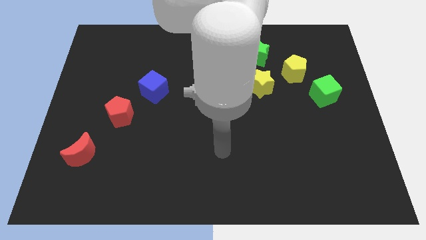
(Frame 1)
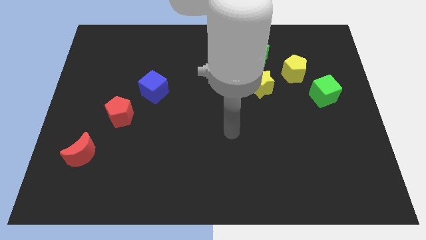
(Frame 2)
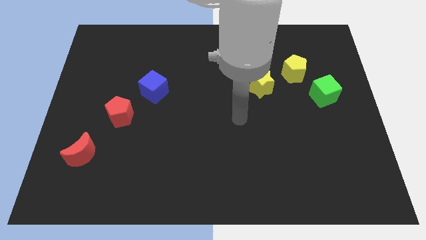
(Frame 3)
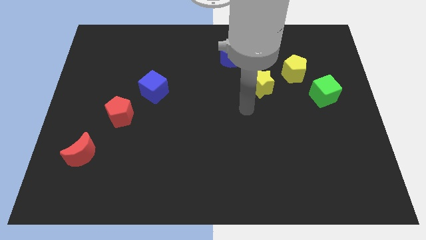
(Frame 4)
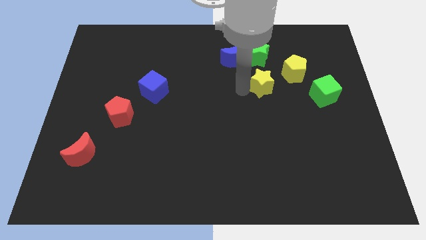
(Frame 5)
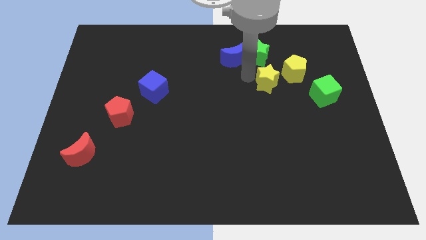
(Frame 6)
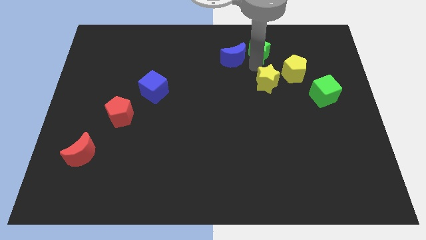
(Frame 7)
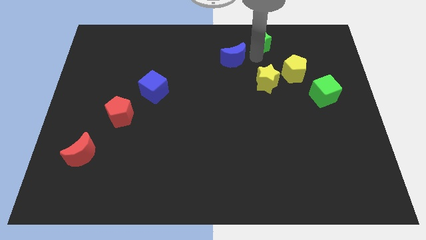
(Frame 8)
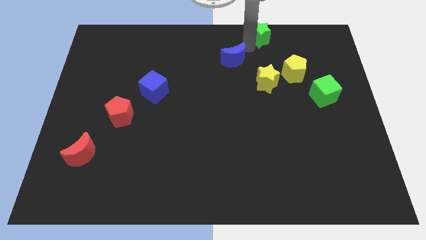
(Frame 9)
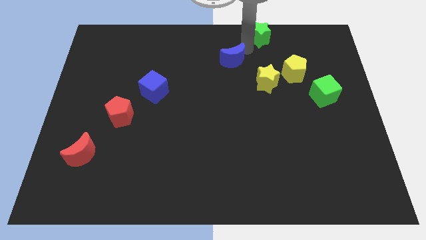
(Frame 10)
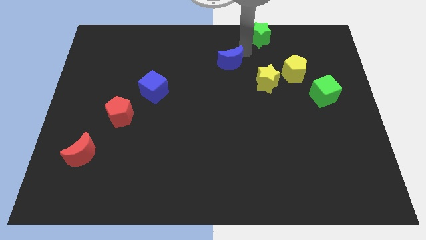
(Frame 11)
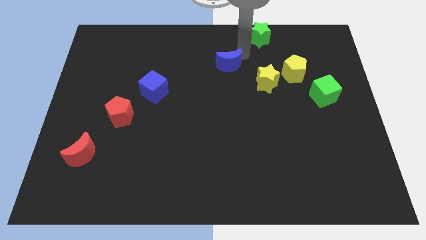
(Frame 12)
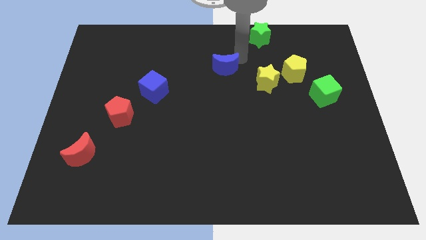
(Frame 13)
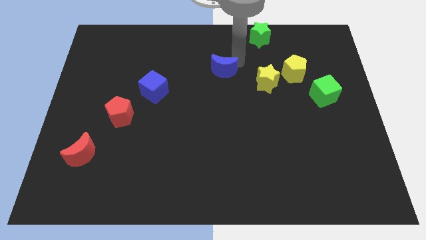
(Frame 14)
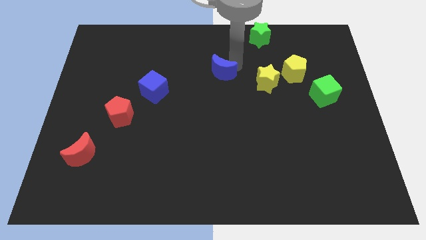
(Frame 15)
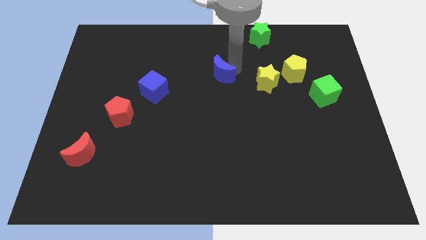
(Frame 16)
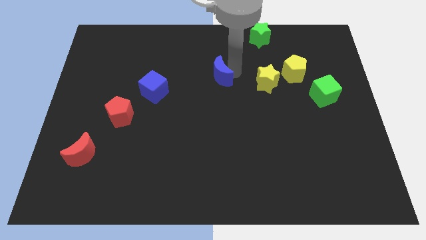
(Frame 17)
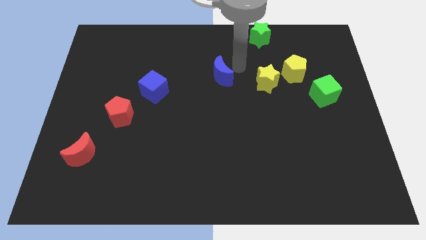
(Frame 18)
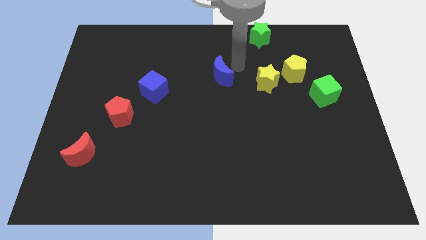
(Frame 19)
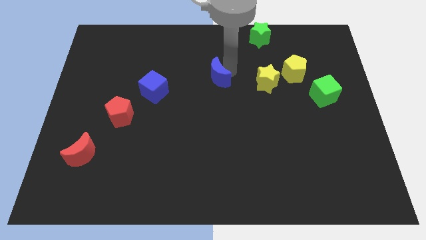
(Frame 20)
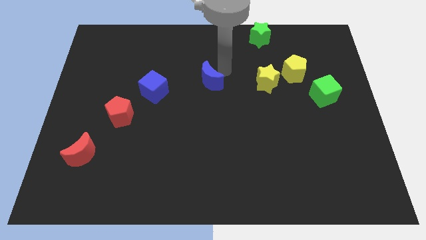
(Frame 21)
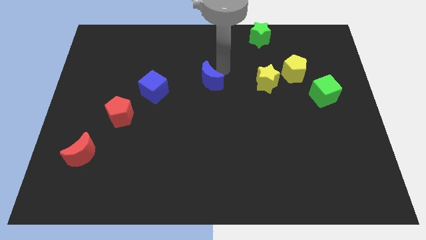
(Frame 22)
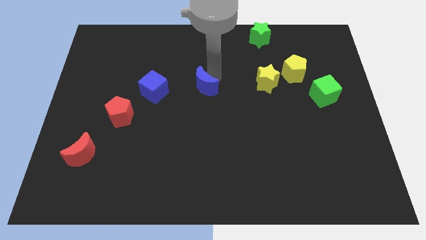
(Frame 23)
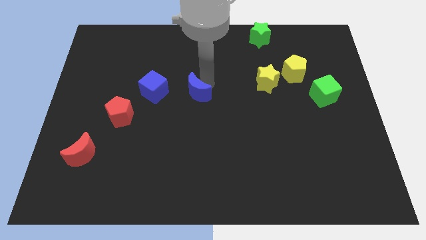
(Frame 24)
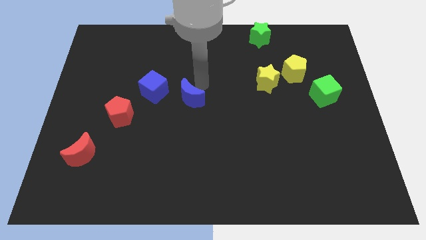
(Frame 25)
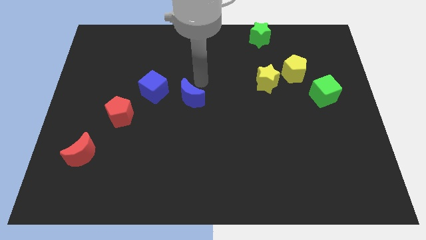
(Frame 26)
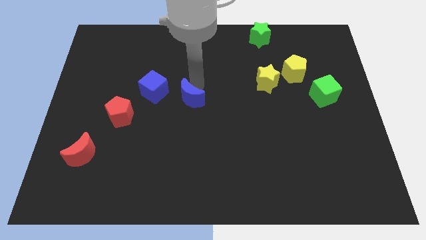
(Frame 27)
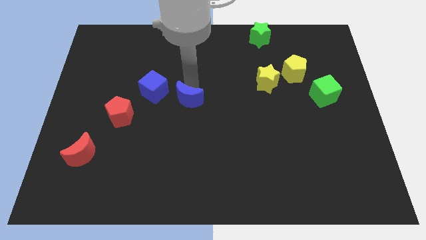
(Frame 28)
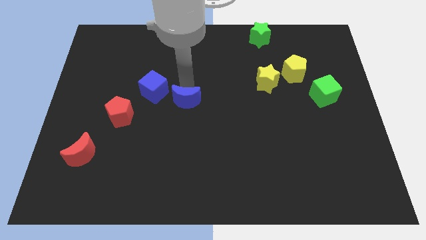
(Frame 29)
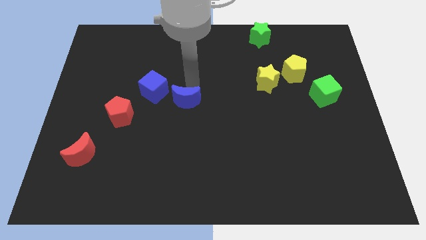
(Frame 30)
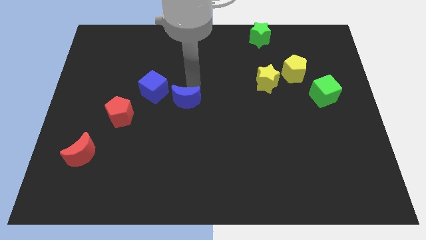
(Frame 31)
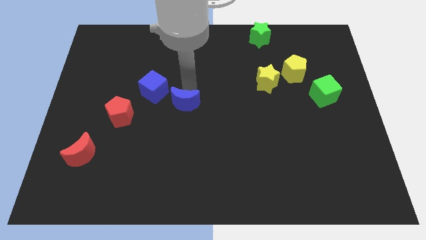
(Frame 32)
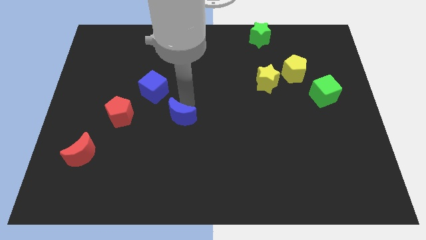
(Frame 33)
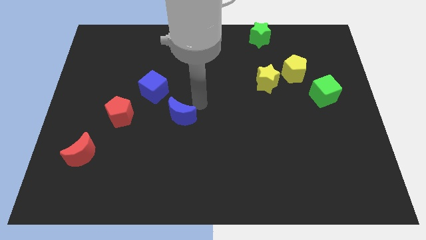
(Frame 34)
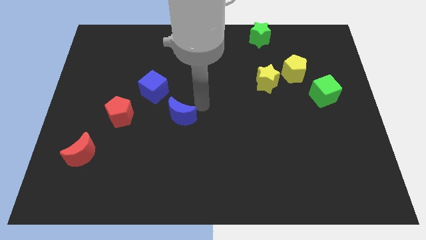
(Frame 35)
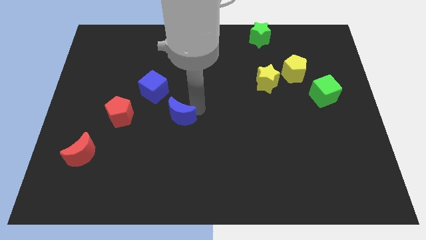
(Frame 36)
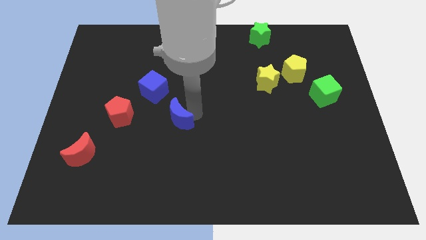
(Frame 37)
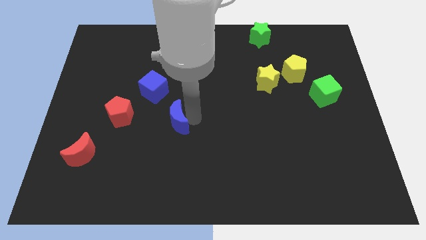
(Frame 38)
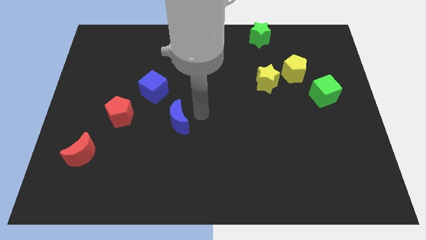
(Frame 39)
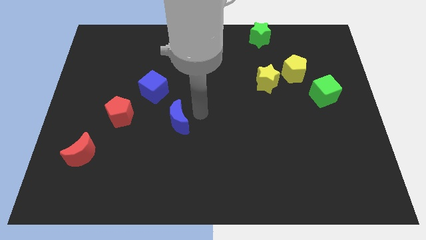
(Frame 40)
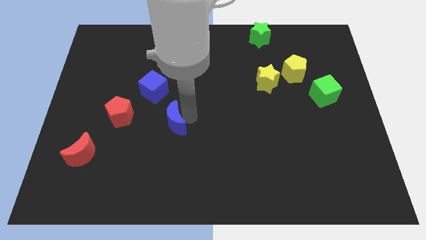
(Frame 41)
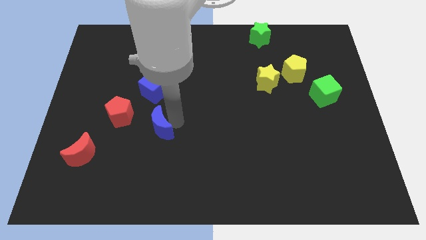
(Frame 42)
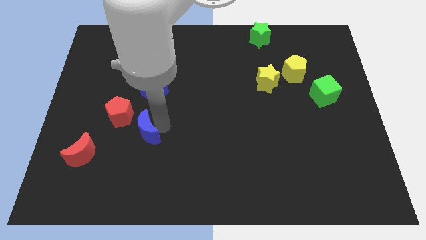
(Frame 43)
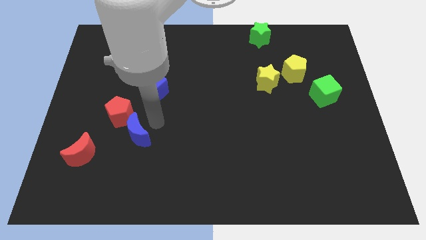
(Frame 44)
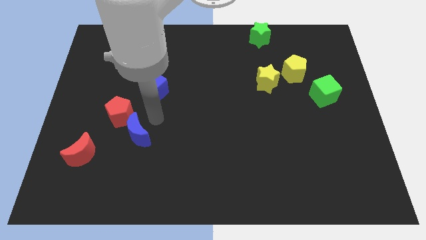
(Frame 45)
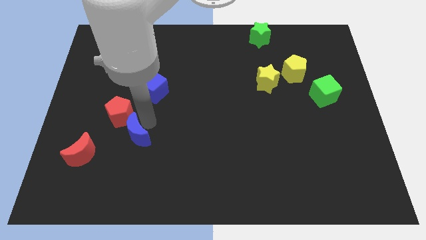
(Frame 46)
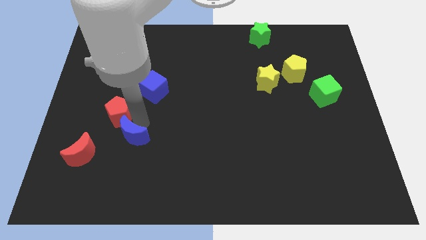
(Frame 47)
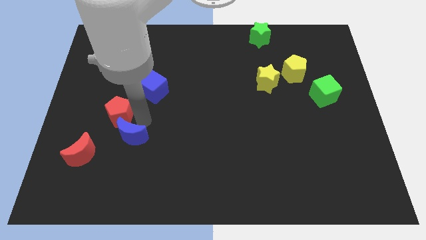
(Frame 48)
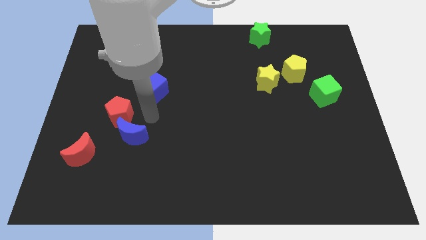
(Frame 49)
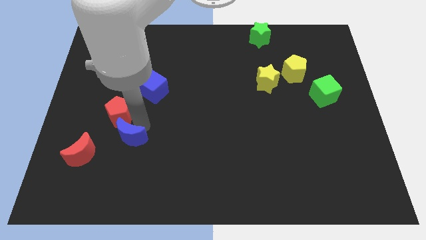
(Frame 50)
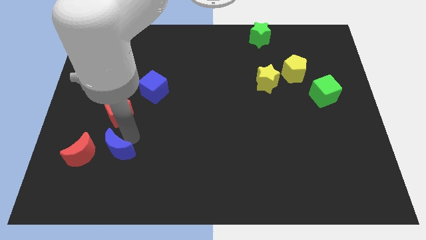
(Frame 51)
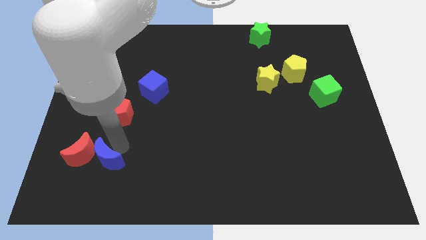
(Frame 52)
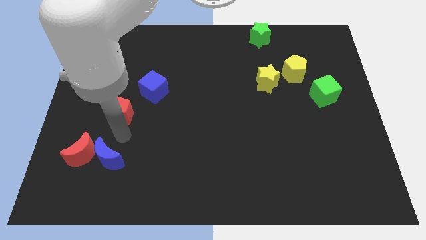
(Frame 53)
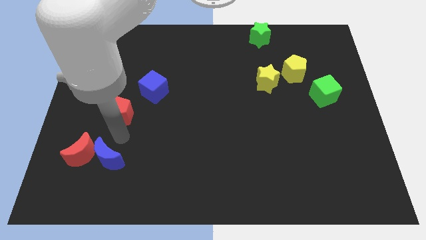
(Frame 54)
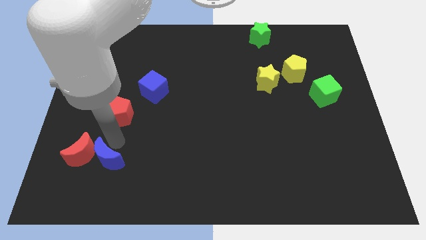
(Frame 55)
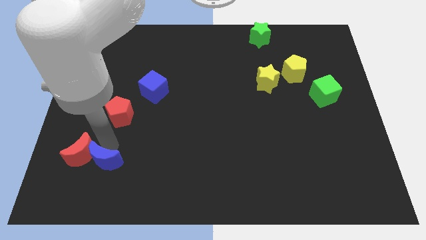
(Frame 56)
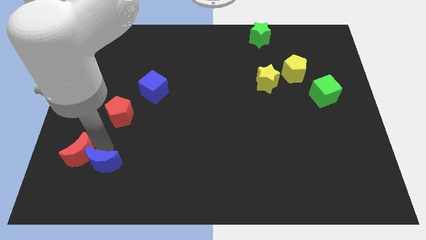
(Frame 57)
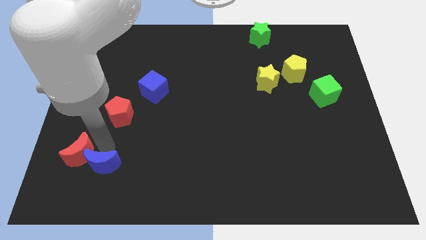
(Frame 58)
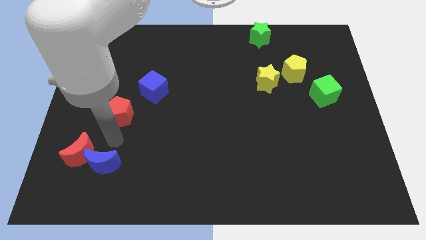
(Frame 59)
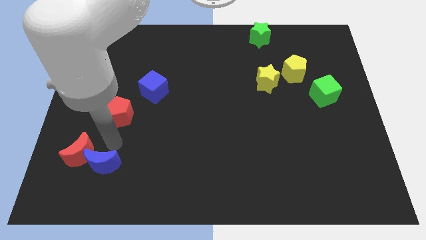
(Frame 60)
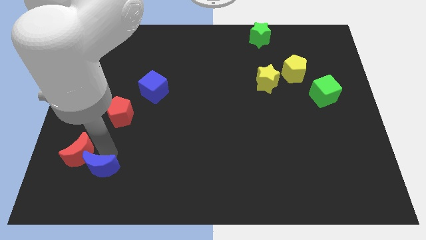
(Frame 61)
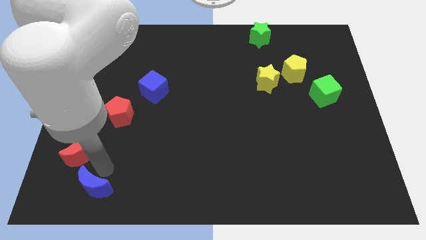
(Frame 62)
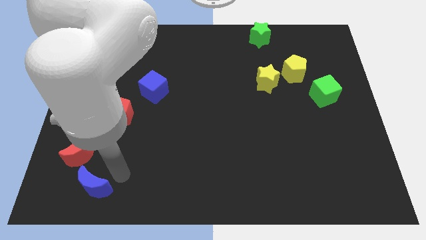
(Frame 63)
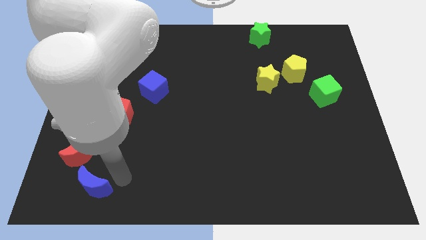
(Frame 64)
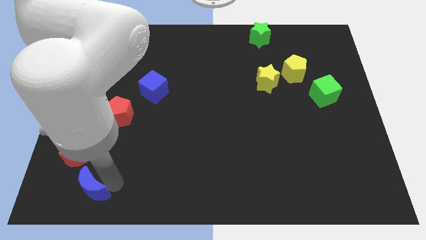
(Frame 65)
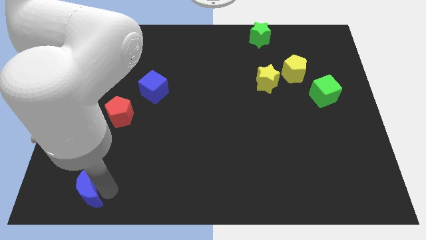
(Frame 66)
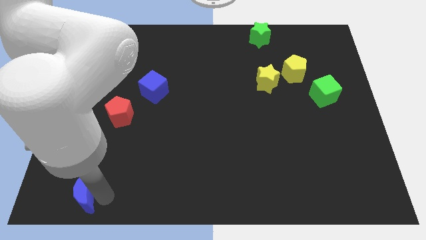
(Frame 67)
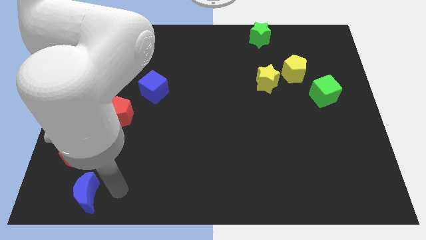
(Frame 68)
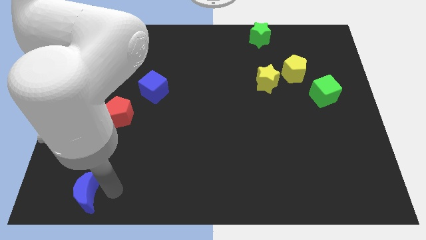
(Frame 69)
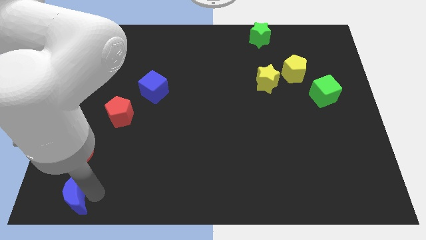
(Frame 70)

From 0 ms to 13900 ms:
slide the blue moon to the bottom left of the board
